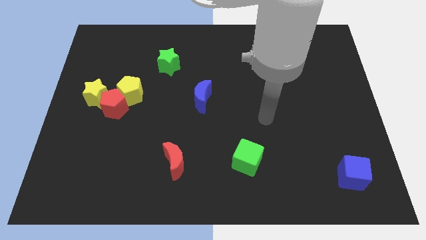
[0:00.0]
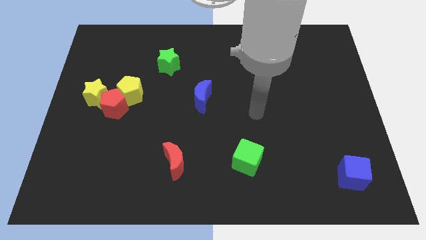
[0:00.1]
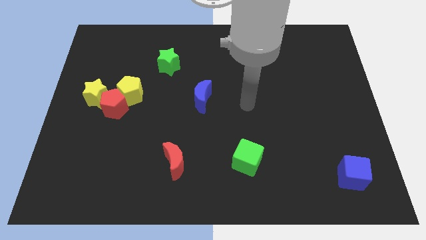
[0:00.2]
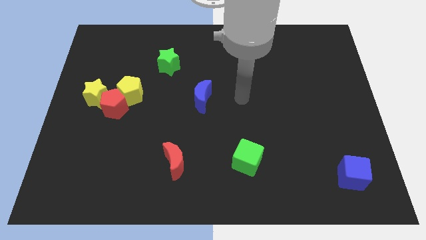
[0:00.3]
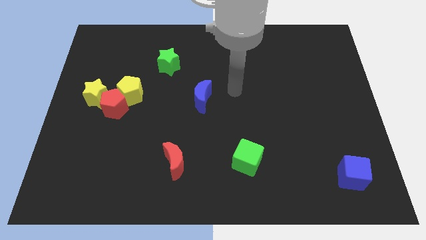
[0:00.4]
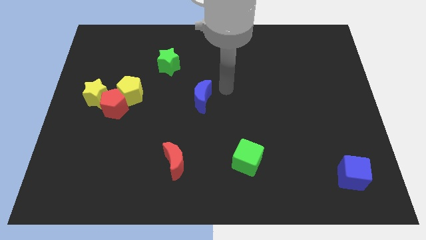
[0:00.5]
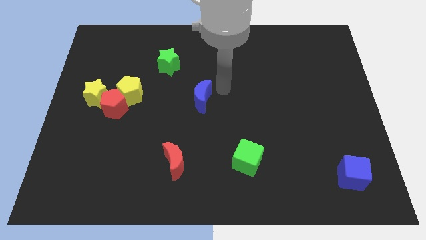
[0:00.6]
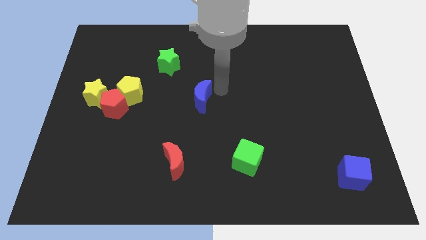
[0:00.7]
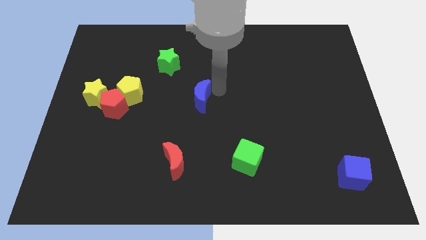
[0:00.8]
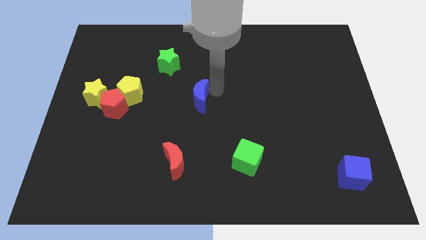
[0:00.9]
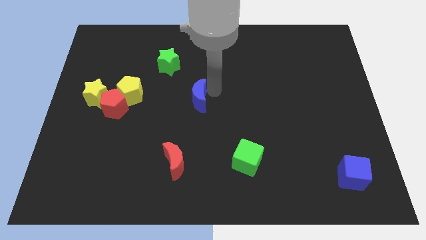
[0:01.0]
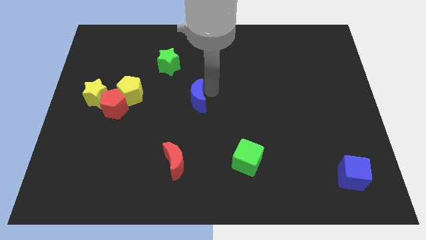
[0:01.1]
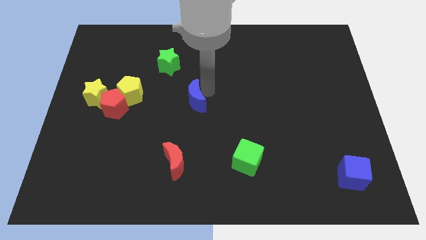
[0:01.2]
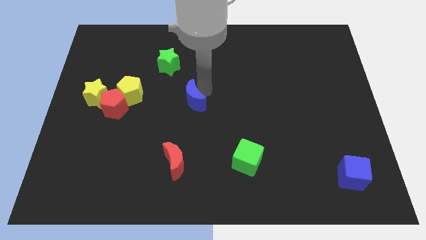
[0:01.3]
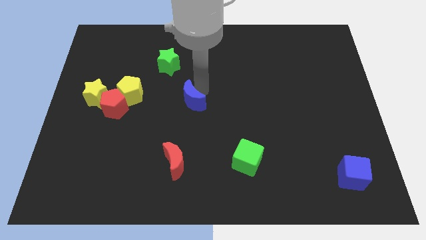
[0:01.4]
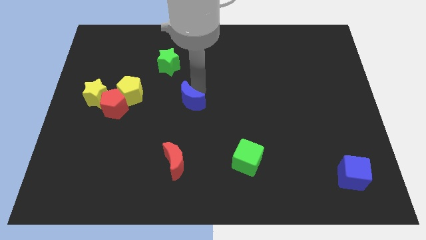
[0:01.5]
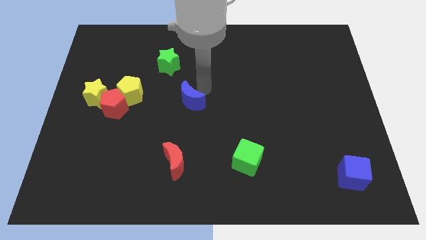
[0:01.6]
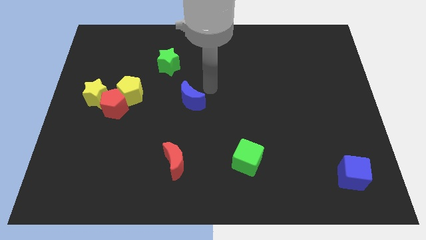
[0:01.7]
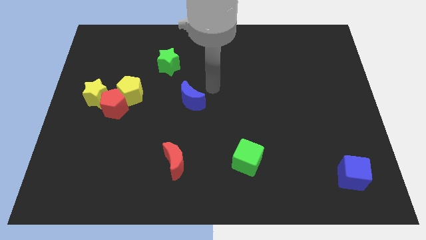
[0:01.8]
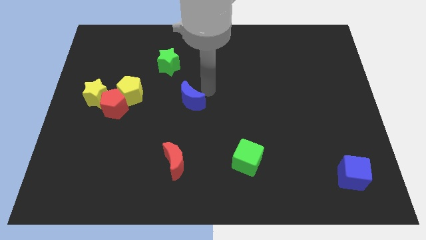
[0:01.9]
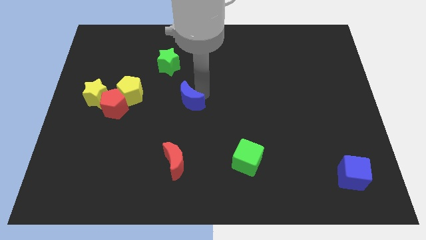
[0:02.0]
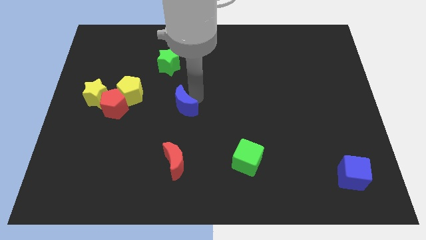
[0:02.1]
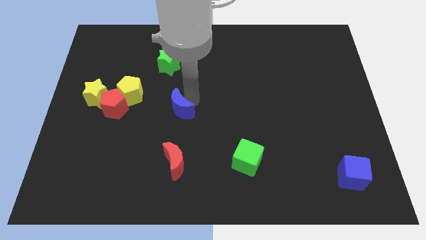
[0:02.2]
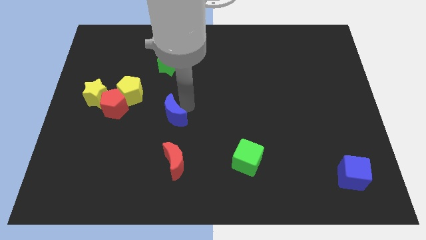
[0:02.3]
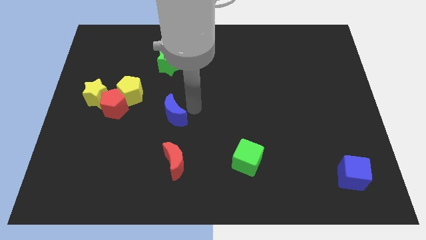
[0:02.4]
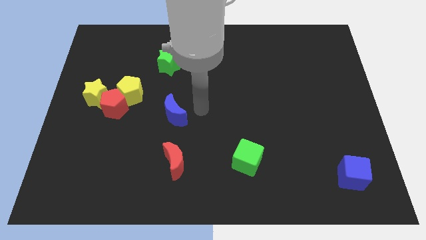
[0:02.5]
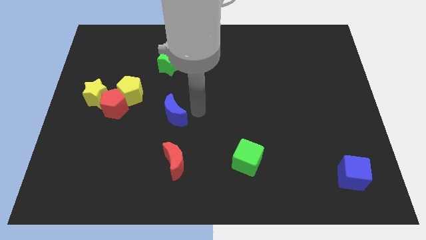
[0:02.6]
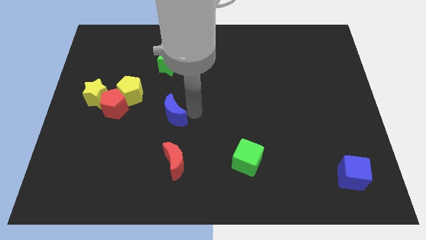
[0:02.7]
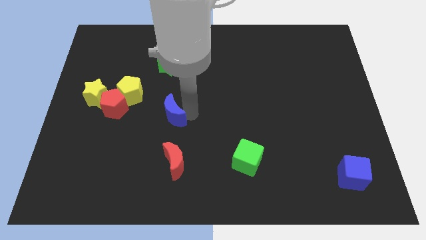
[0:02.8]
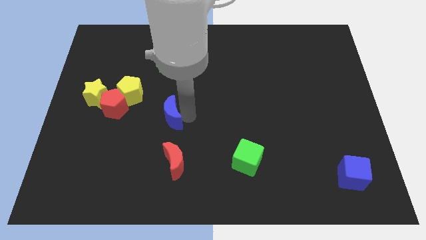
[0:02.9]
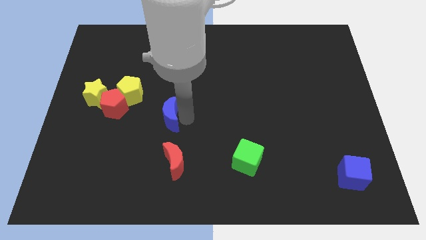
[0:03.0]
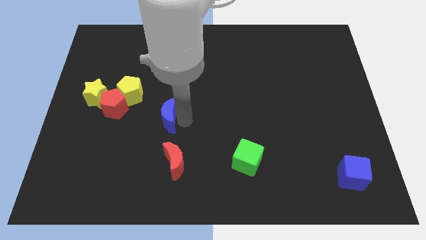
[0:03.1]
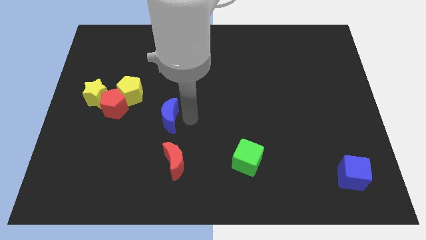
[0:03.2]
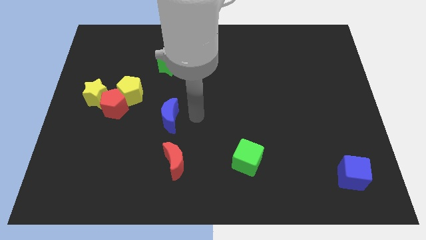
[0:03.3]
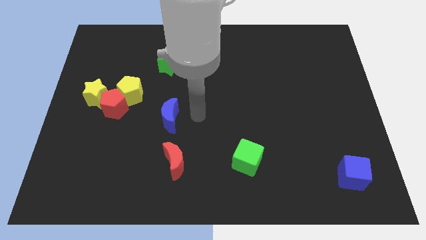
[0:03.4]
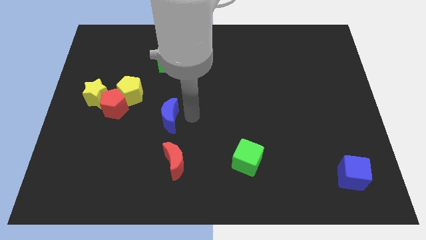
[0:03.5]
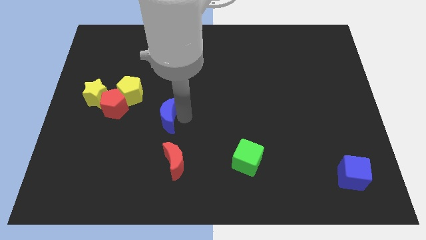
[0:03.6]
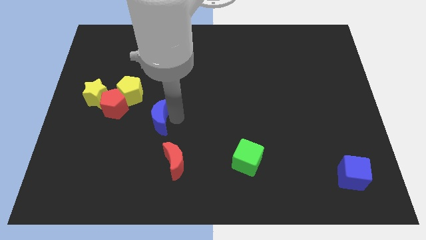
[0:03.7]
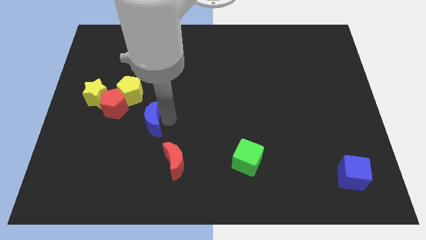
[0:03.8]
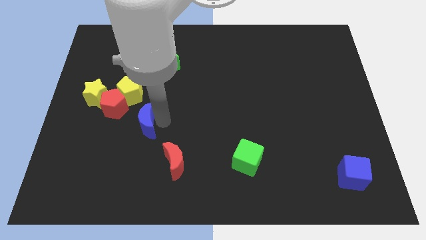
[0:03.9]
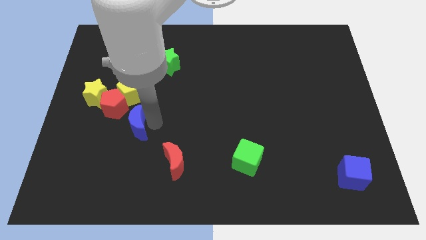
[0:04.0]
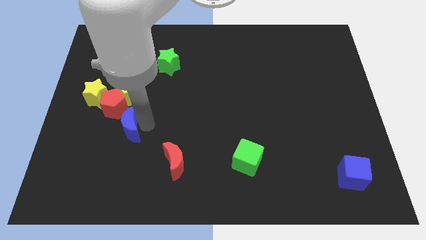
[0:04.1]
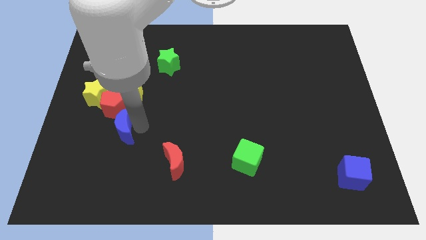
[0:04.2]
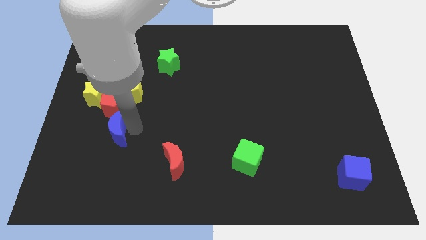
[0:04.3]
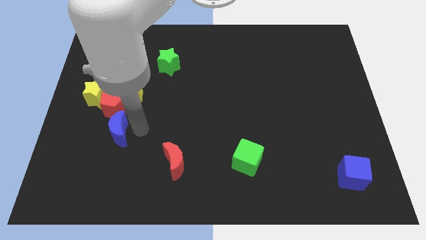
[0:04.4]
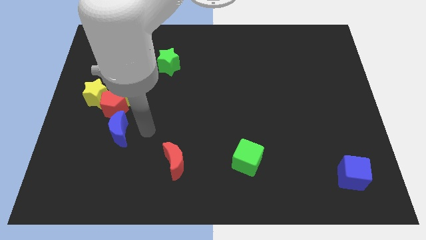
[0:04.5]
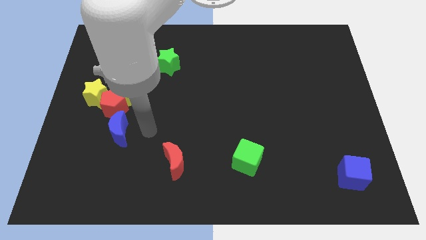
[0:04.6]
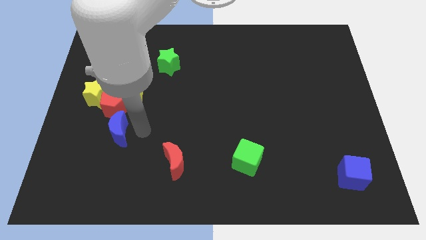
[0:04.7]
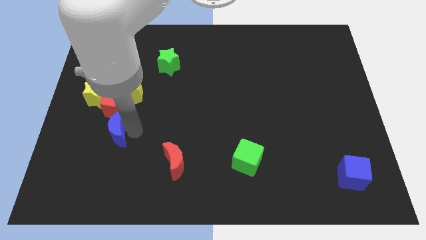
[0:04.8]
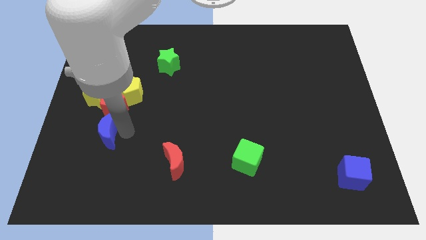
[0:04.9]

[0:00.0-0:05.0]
put the blue moon to the bottom of the yellow star

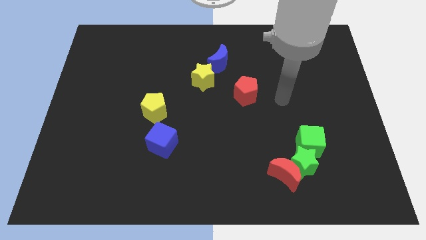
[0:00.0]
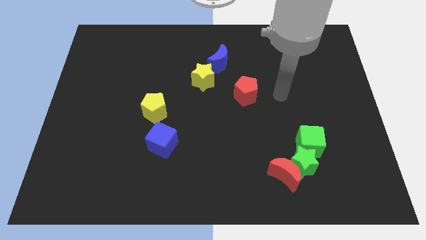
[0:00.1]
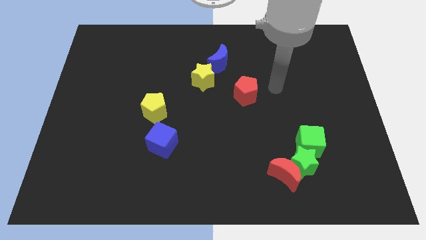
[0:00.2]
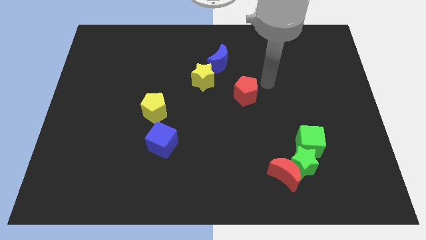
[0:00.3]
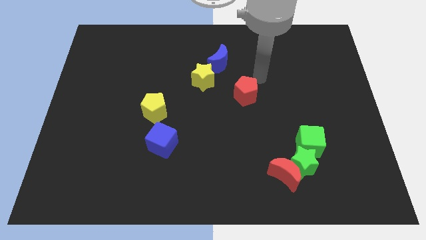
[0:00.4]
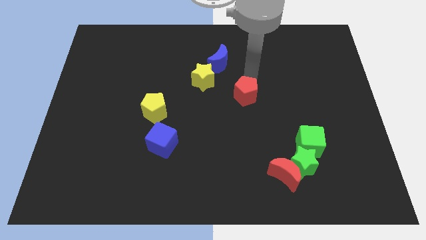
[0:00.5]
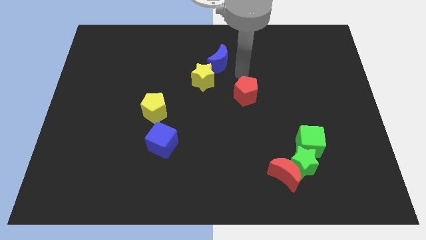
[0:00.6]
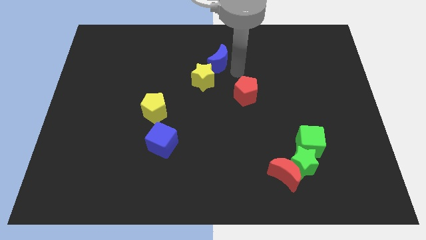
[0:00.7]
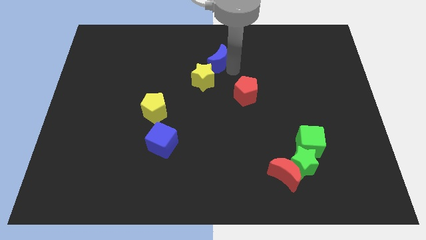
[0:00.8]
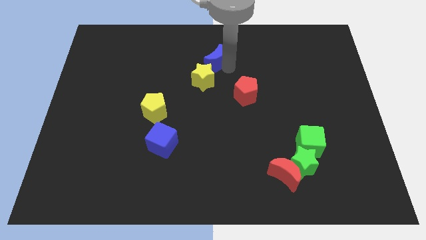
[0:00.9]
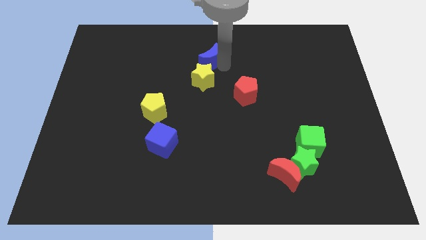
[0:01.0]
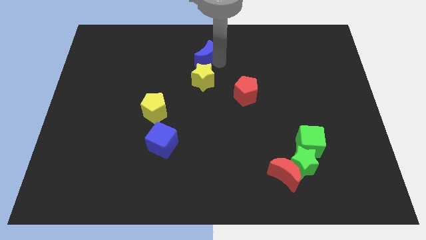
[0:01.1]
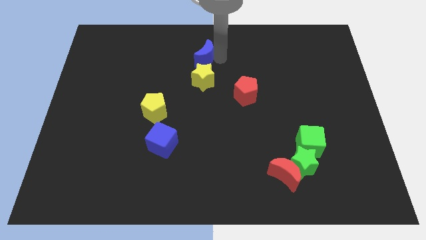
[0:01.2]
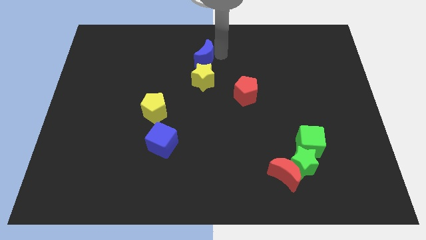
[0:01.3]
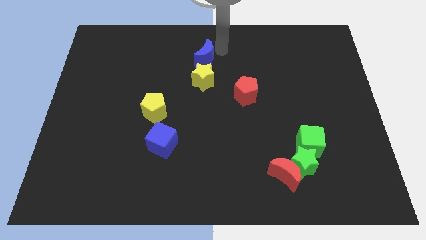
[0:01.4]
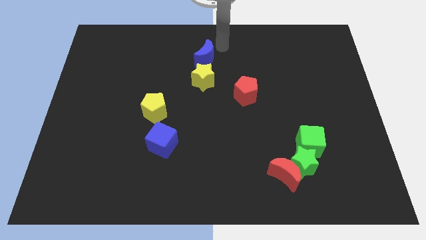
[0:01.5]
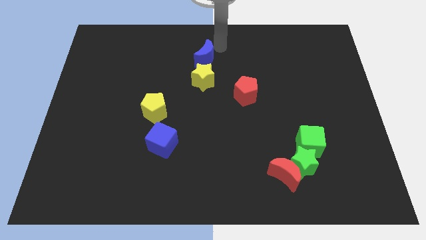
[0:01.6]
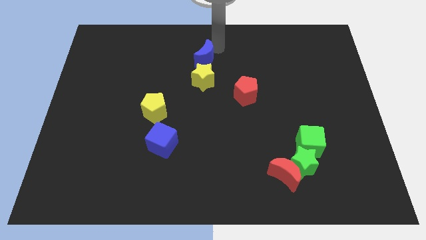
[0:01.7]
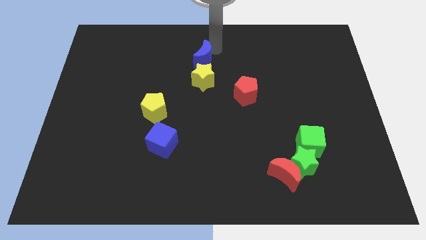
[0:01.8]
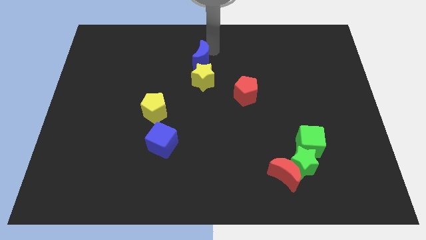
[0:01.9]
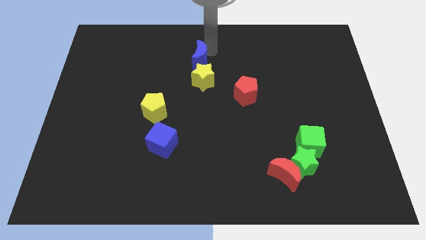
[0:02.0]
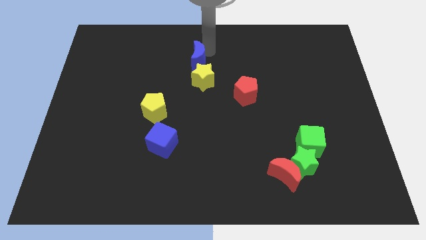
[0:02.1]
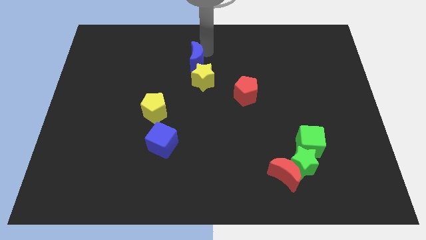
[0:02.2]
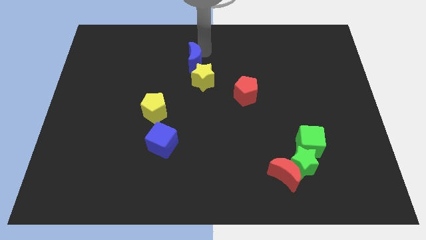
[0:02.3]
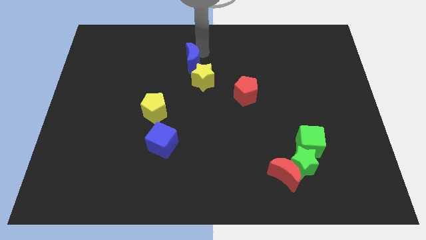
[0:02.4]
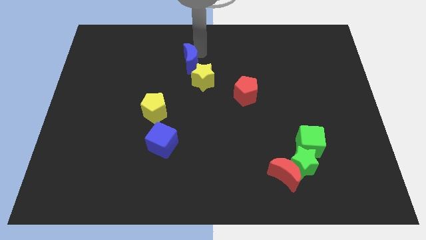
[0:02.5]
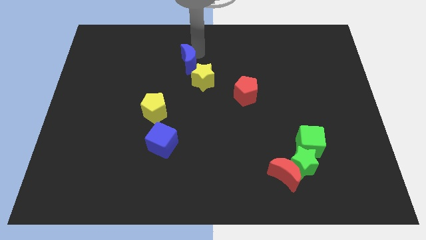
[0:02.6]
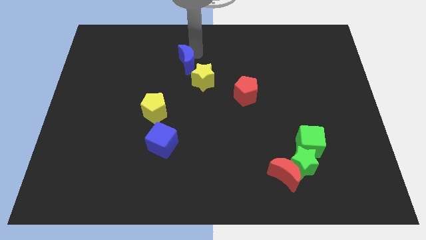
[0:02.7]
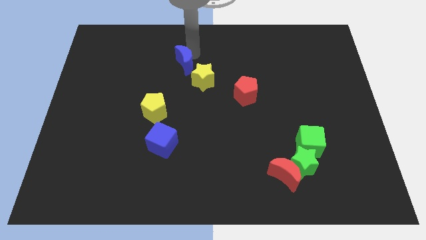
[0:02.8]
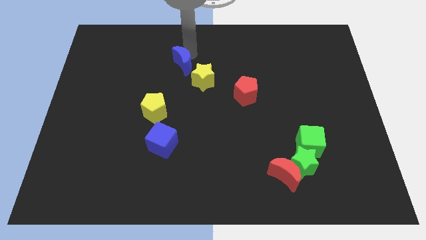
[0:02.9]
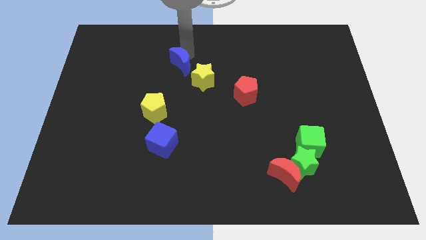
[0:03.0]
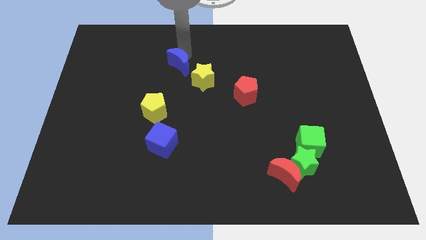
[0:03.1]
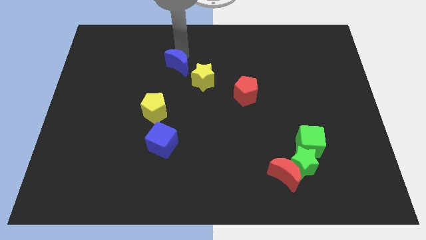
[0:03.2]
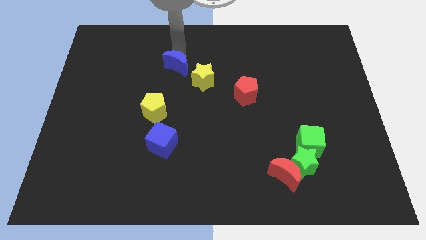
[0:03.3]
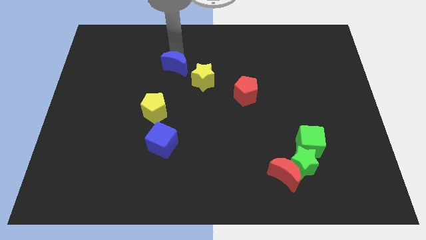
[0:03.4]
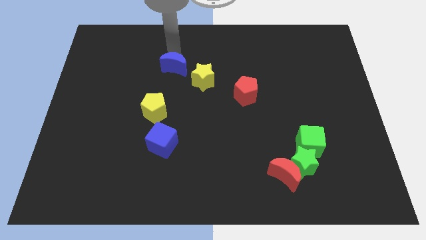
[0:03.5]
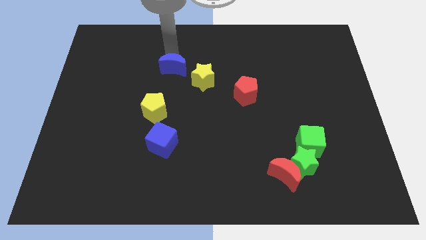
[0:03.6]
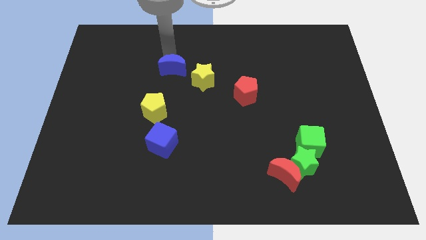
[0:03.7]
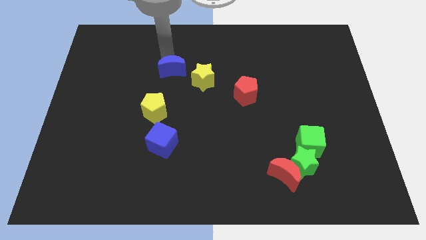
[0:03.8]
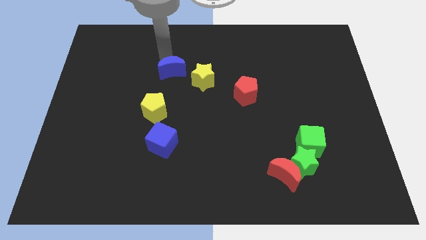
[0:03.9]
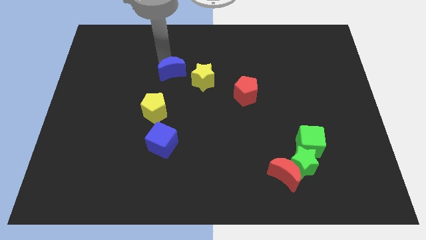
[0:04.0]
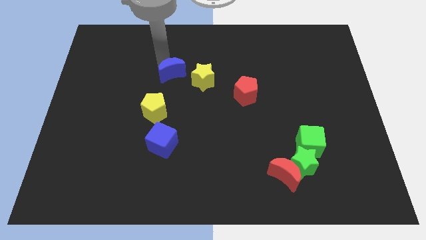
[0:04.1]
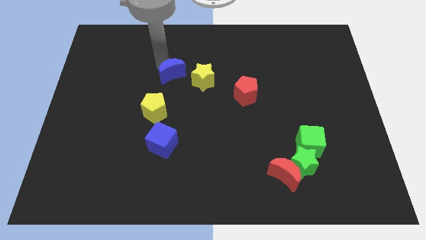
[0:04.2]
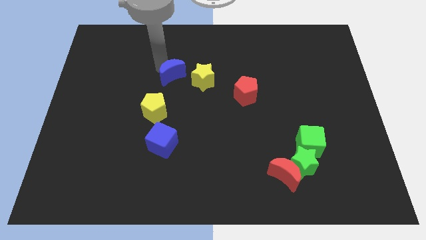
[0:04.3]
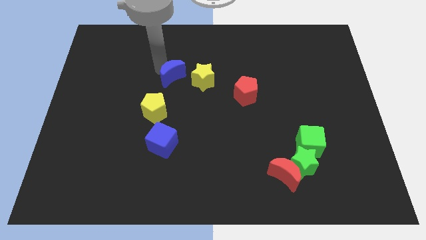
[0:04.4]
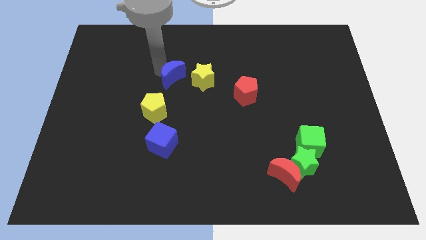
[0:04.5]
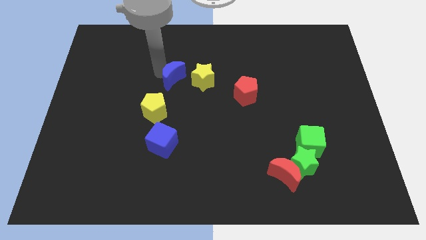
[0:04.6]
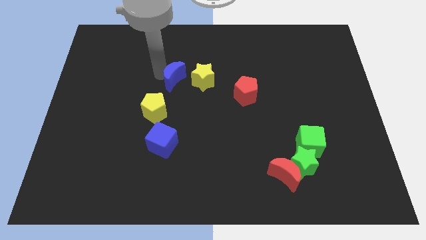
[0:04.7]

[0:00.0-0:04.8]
move the blue moon diagonally up and to the right of the yellow pentagon
